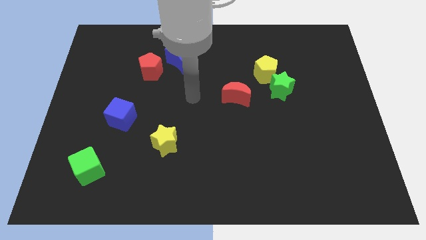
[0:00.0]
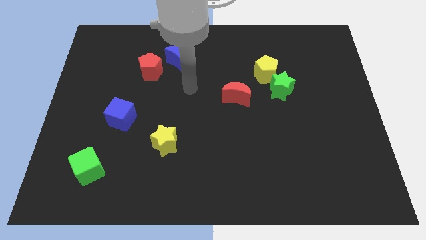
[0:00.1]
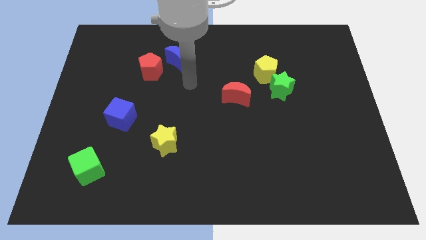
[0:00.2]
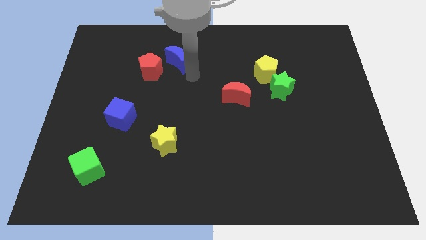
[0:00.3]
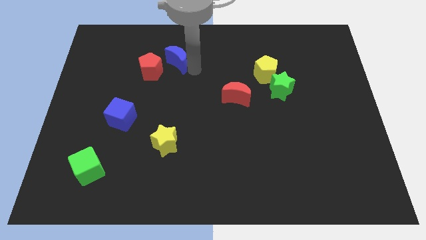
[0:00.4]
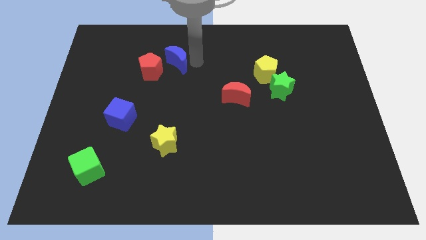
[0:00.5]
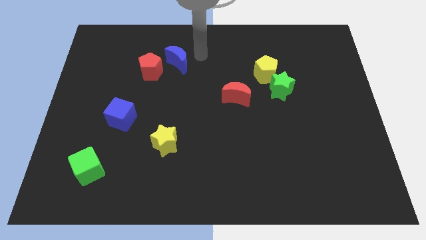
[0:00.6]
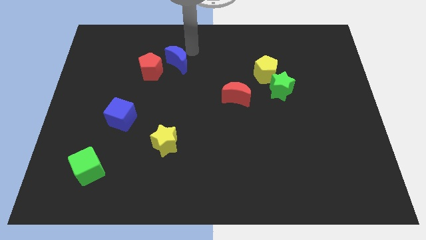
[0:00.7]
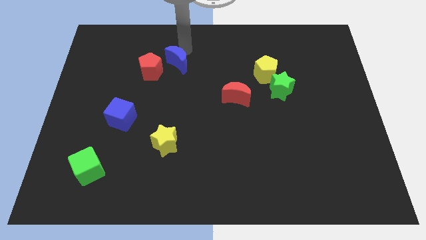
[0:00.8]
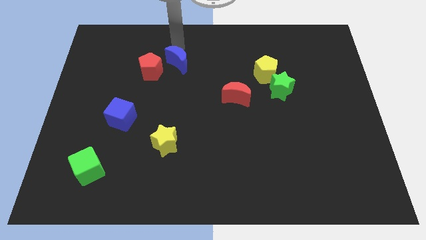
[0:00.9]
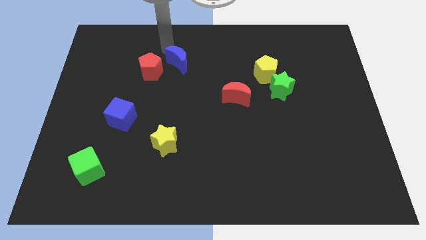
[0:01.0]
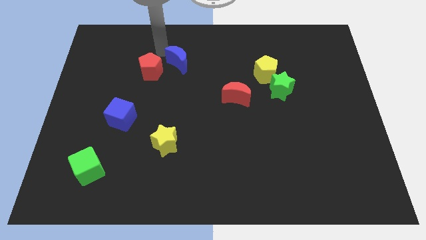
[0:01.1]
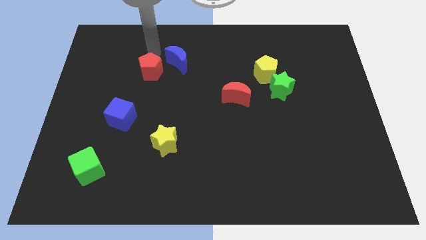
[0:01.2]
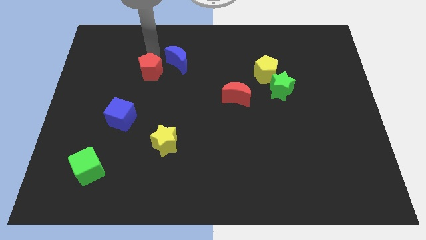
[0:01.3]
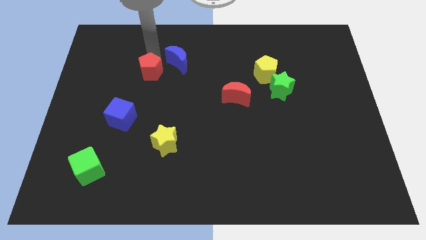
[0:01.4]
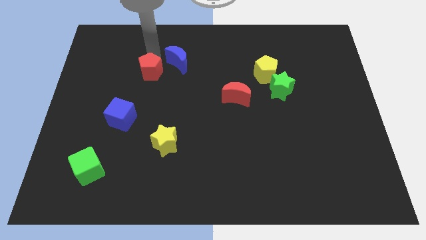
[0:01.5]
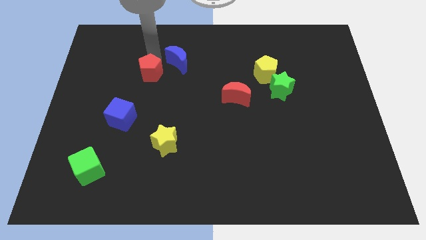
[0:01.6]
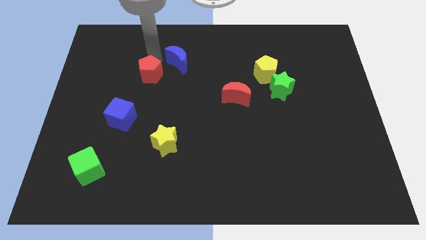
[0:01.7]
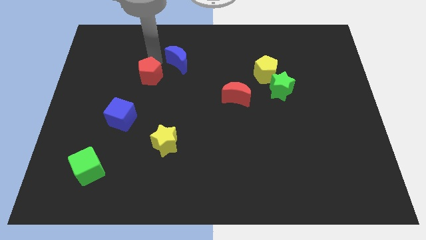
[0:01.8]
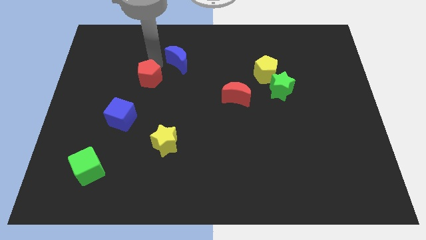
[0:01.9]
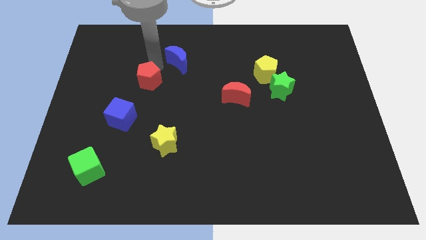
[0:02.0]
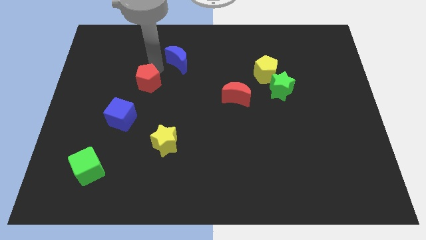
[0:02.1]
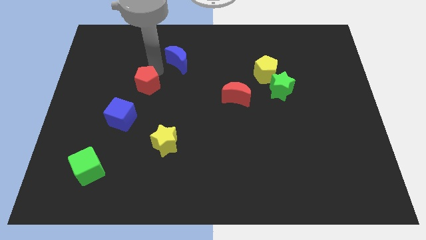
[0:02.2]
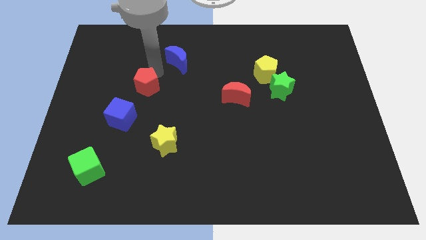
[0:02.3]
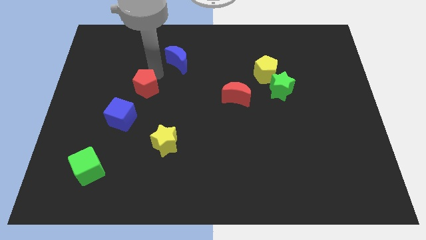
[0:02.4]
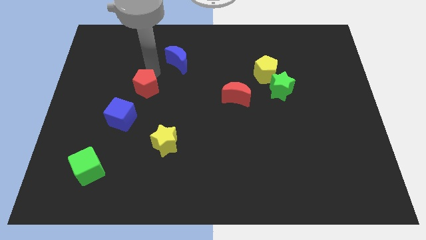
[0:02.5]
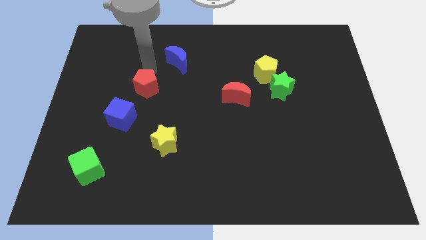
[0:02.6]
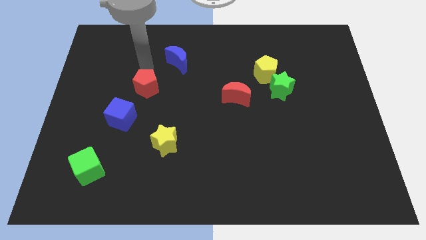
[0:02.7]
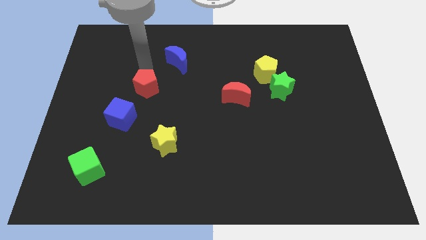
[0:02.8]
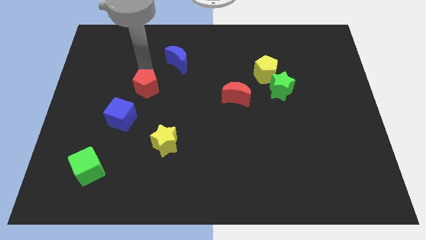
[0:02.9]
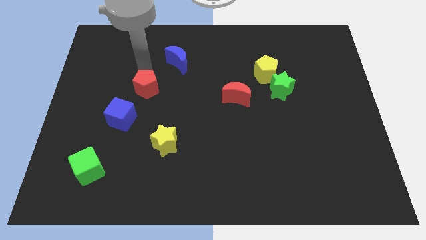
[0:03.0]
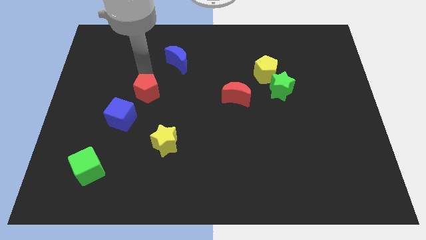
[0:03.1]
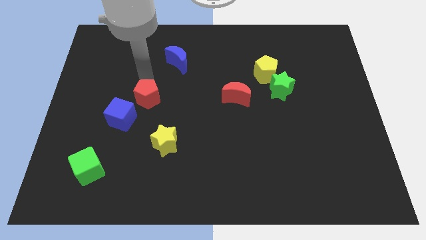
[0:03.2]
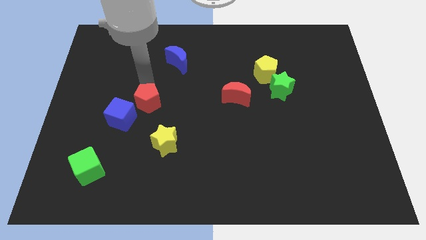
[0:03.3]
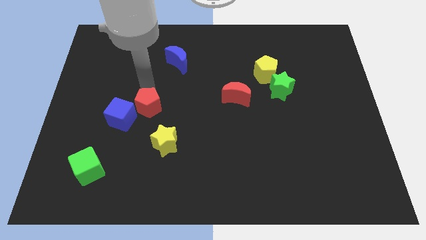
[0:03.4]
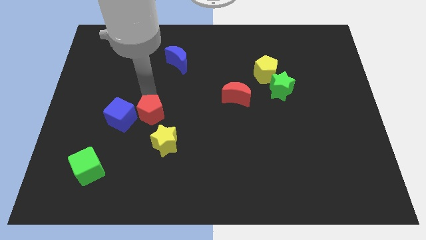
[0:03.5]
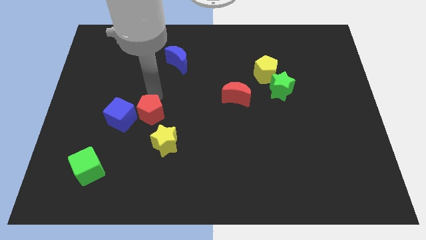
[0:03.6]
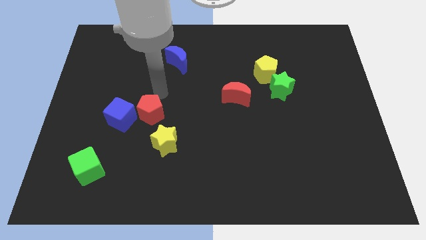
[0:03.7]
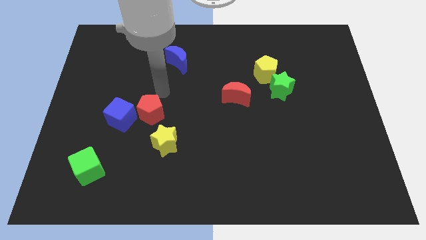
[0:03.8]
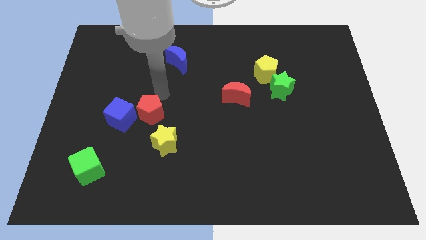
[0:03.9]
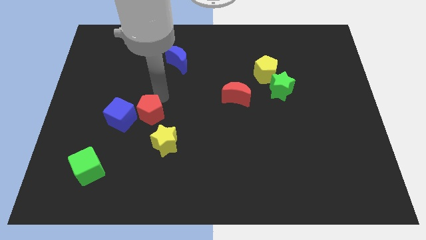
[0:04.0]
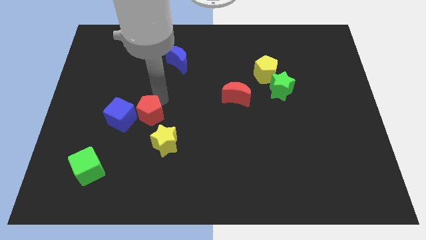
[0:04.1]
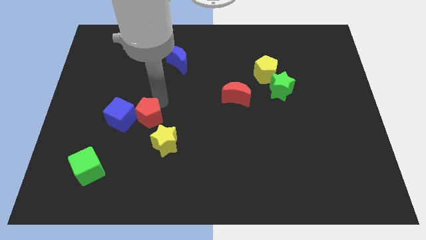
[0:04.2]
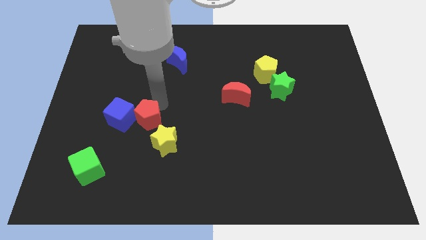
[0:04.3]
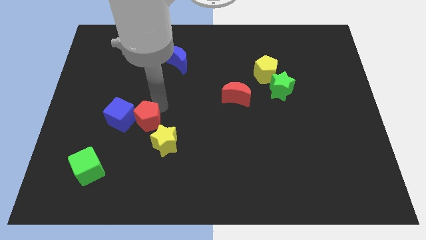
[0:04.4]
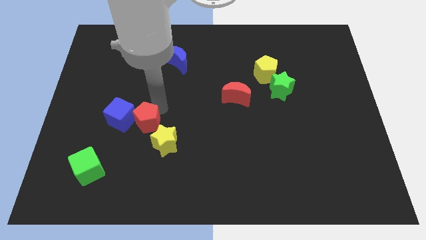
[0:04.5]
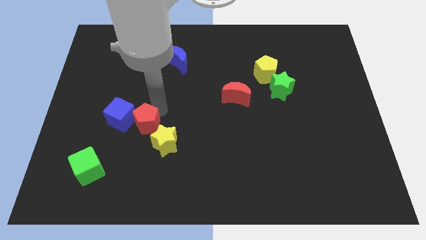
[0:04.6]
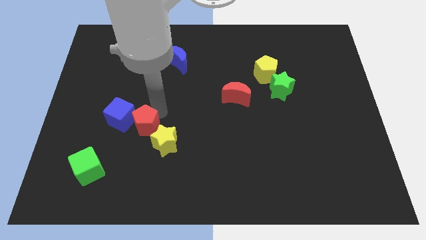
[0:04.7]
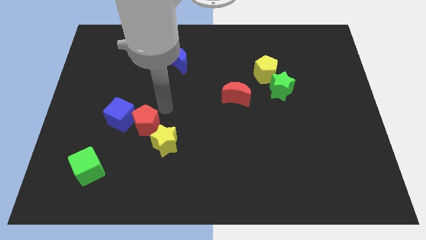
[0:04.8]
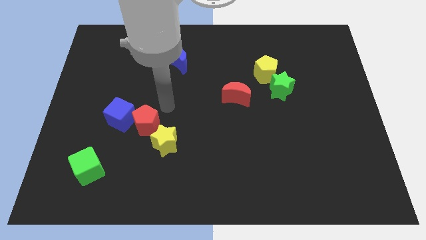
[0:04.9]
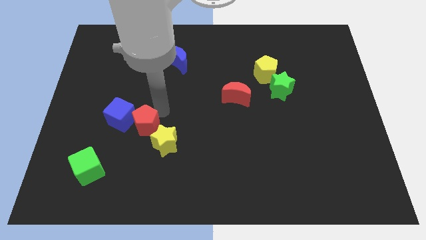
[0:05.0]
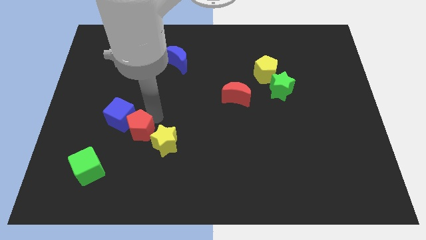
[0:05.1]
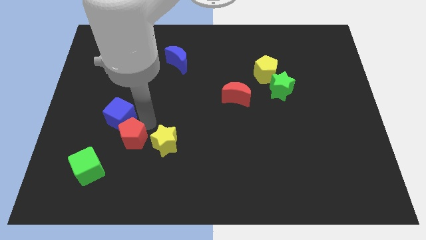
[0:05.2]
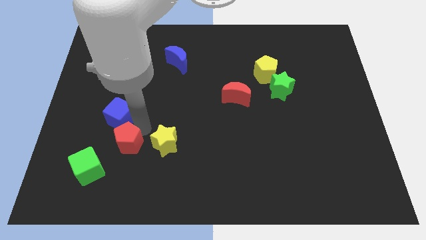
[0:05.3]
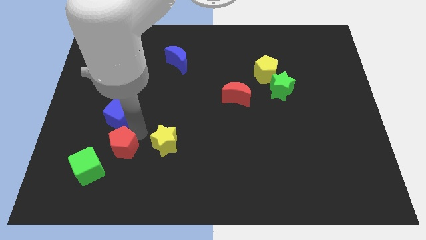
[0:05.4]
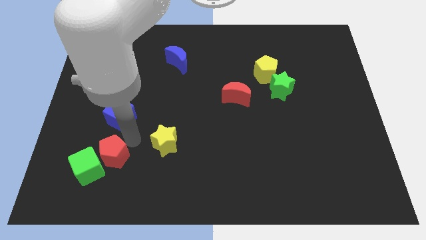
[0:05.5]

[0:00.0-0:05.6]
slide the red pentagon towards the green cube

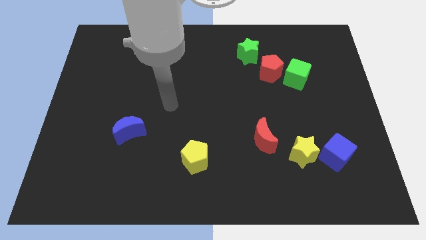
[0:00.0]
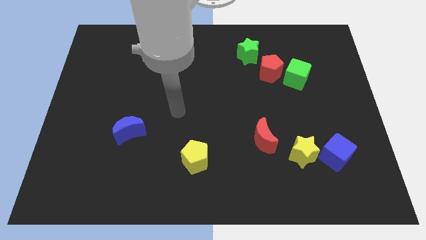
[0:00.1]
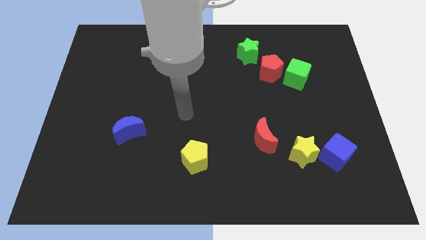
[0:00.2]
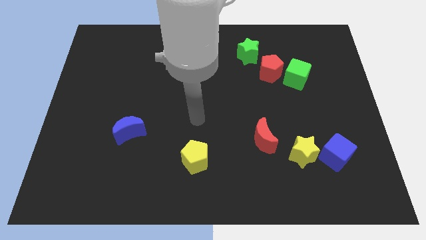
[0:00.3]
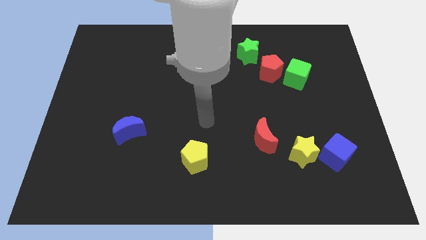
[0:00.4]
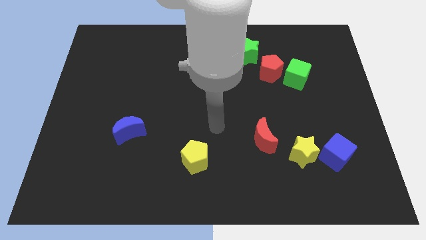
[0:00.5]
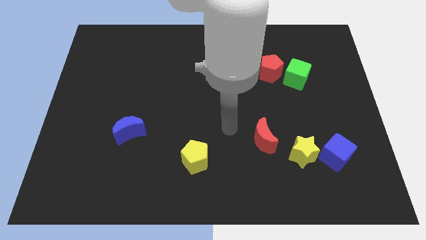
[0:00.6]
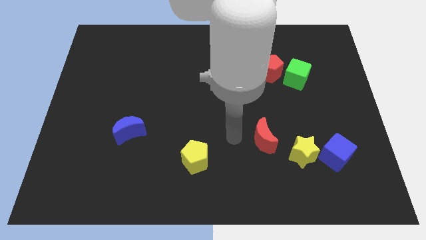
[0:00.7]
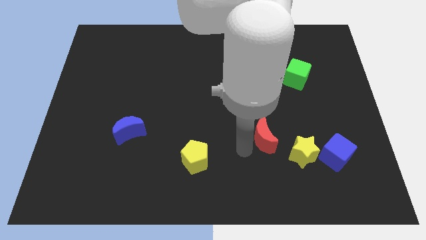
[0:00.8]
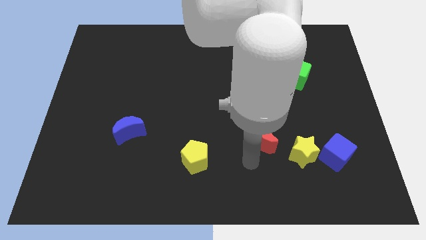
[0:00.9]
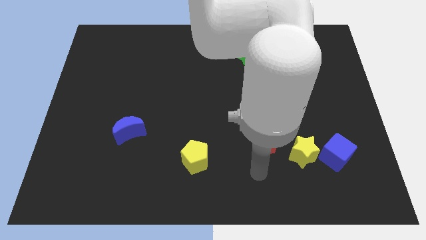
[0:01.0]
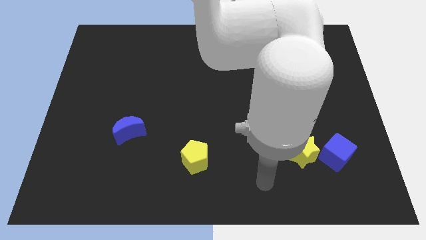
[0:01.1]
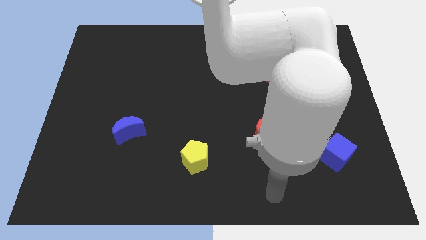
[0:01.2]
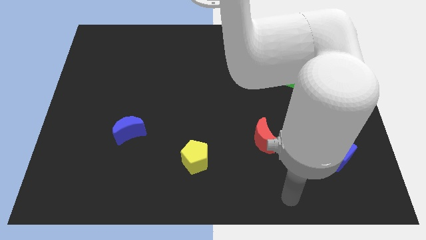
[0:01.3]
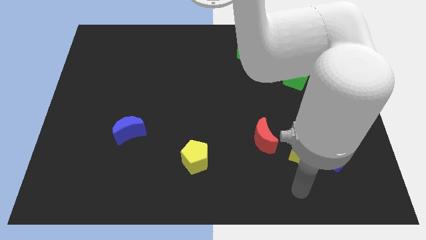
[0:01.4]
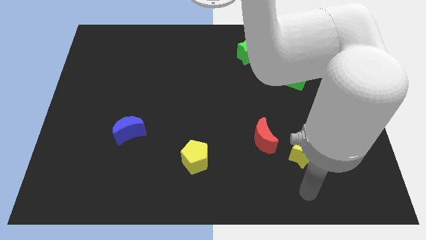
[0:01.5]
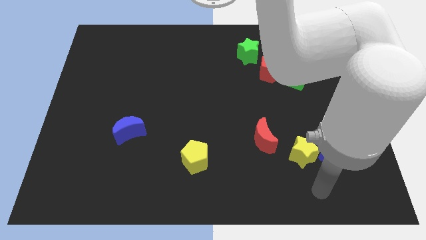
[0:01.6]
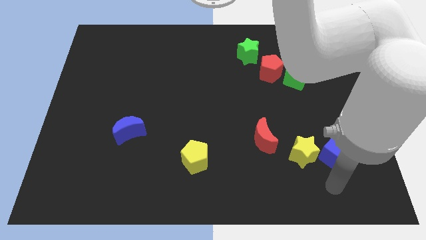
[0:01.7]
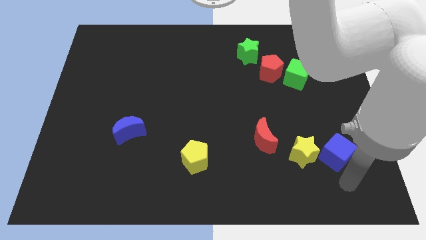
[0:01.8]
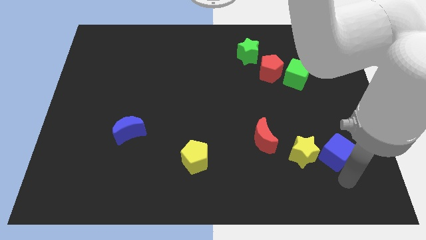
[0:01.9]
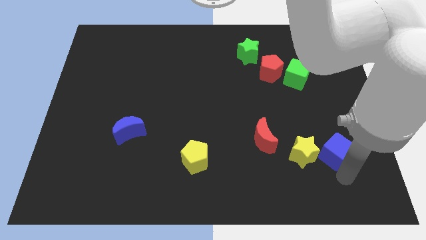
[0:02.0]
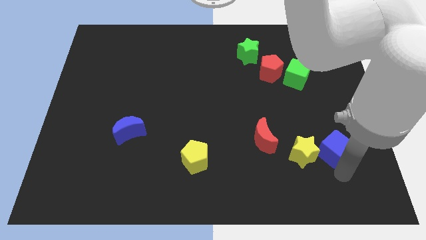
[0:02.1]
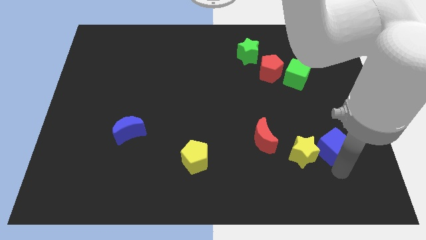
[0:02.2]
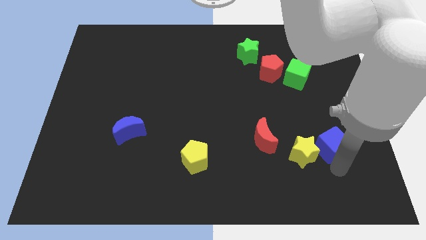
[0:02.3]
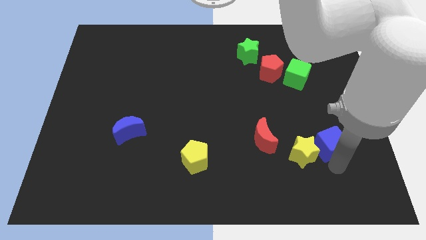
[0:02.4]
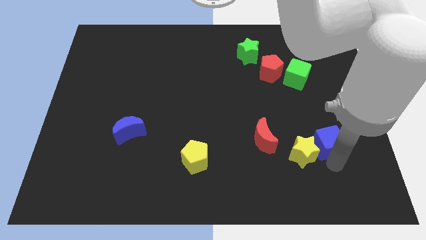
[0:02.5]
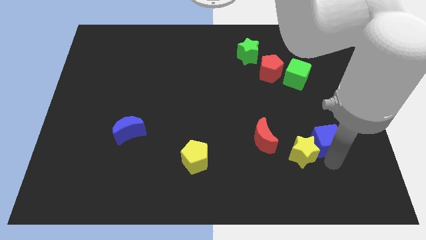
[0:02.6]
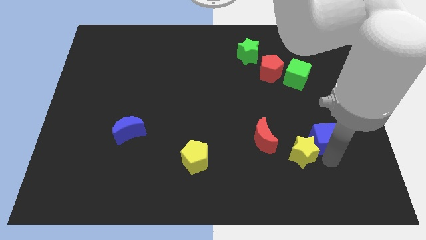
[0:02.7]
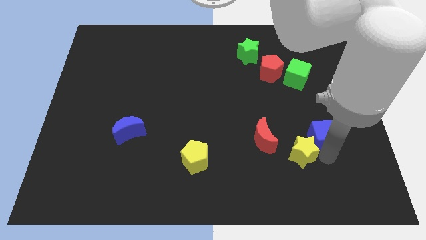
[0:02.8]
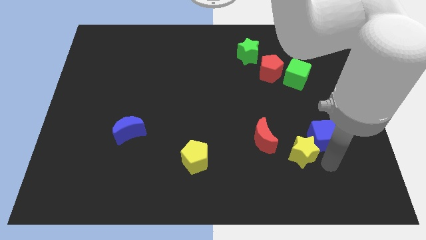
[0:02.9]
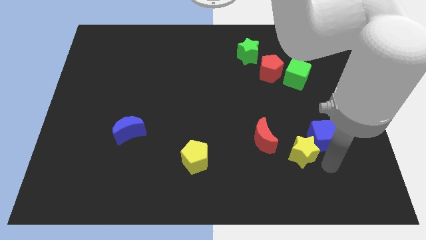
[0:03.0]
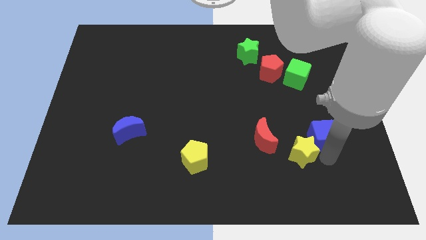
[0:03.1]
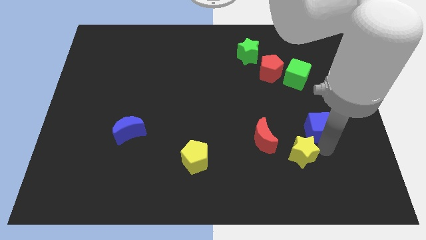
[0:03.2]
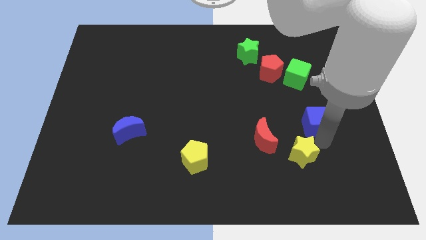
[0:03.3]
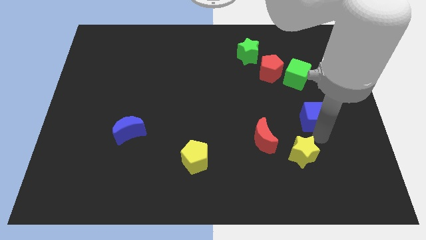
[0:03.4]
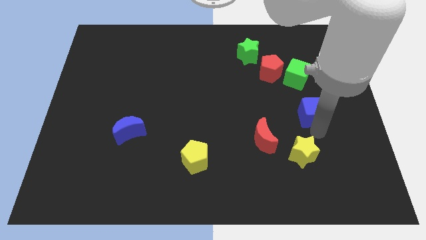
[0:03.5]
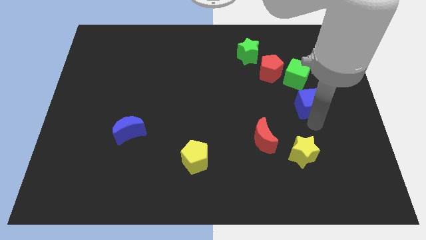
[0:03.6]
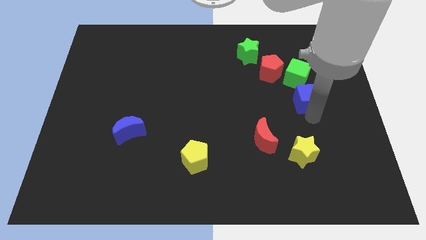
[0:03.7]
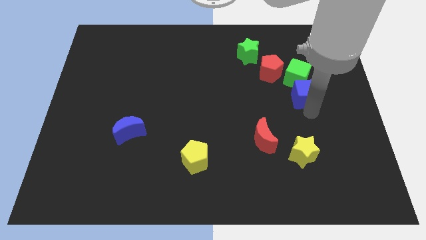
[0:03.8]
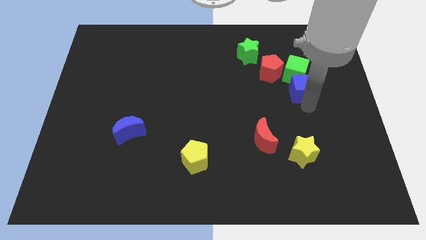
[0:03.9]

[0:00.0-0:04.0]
move the blue cube close to the green cube
